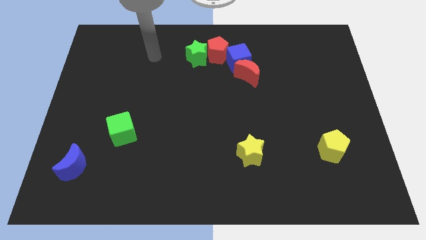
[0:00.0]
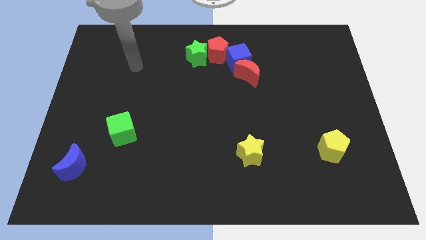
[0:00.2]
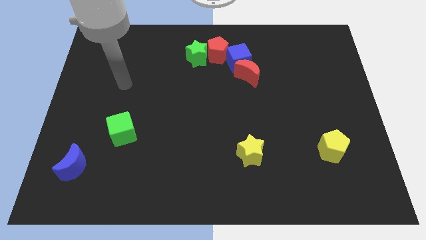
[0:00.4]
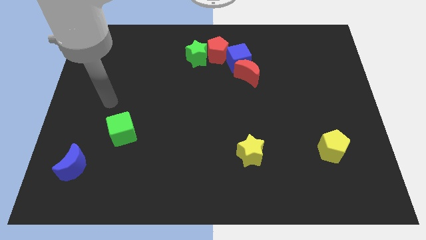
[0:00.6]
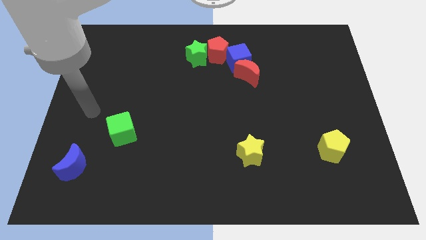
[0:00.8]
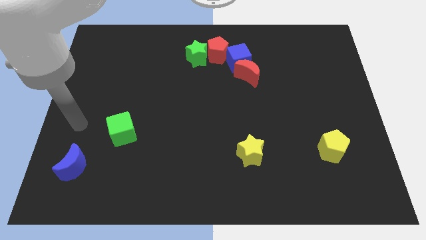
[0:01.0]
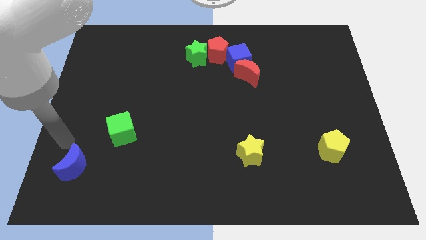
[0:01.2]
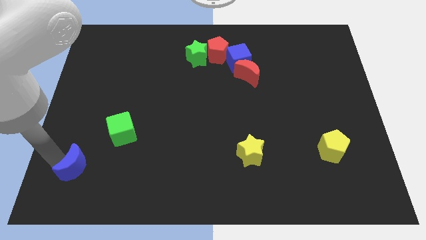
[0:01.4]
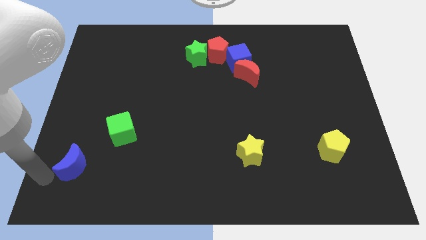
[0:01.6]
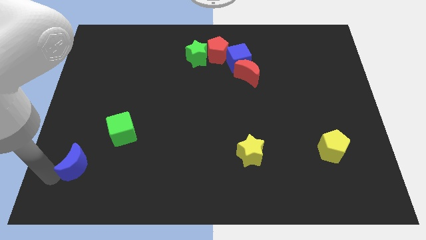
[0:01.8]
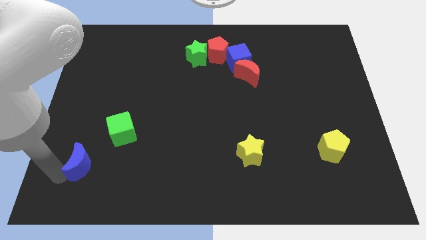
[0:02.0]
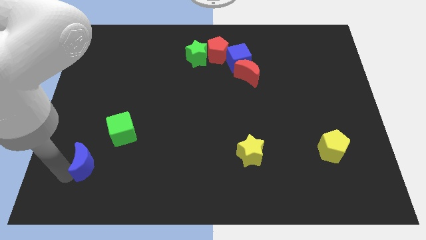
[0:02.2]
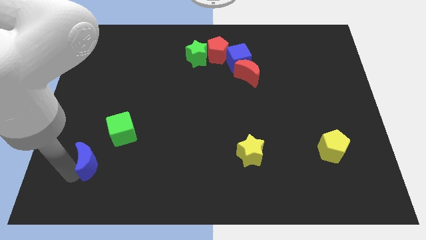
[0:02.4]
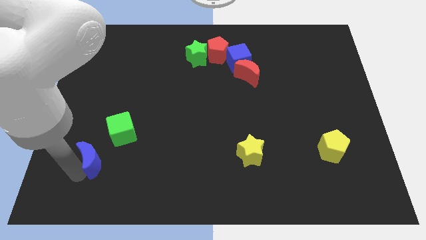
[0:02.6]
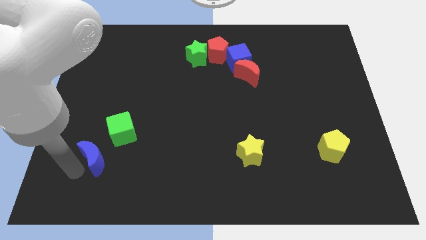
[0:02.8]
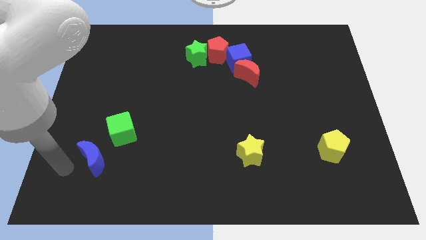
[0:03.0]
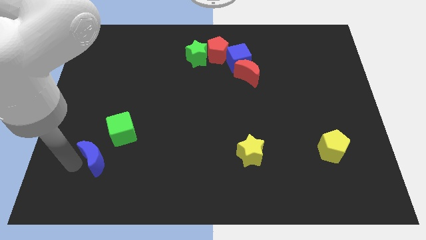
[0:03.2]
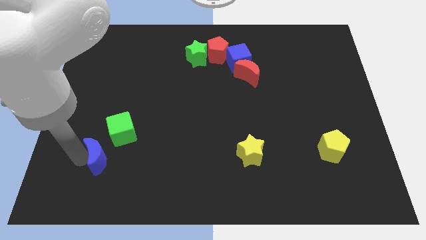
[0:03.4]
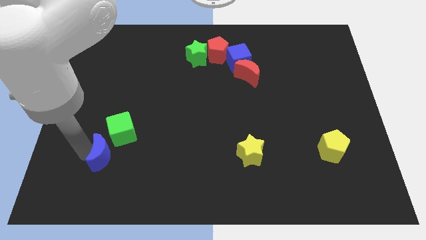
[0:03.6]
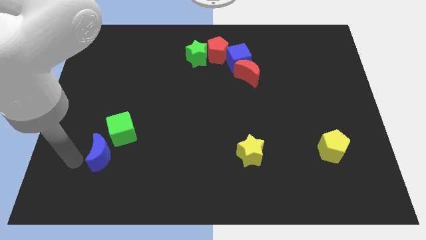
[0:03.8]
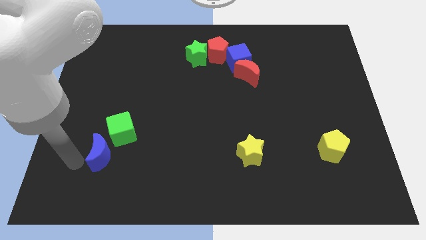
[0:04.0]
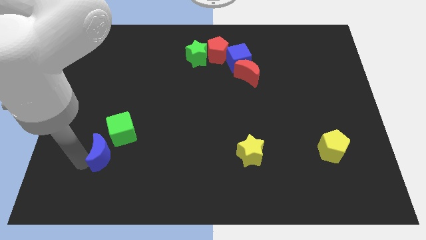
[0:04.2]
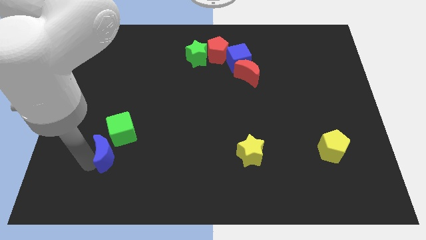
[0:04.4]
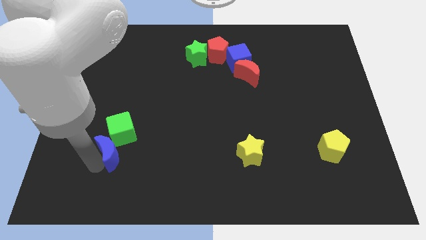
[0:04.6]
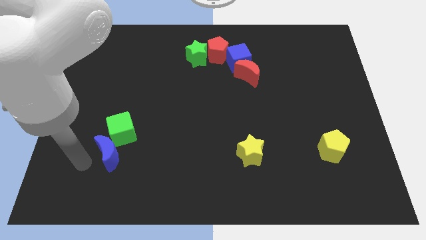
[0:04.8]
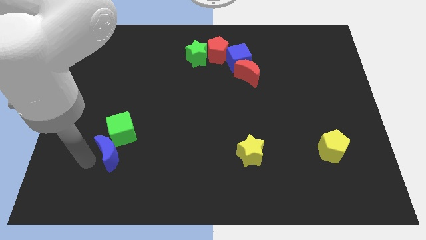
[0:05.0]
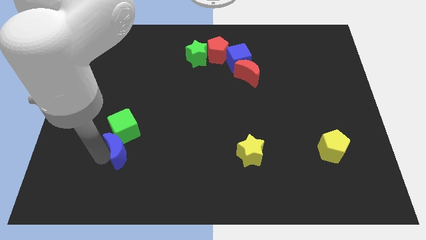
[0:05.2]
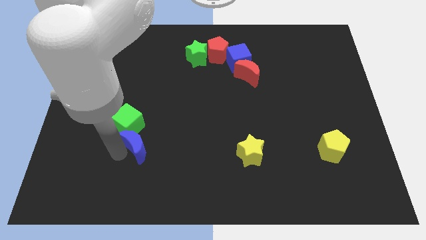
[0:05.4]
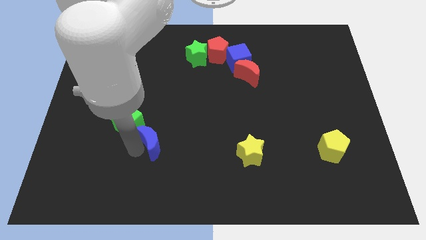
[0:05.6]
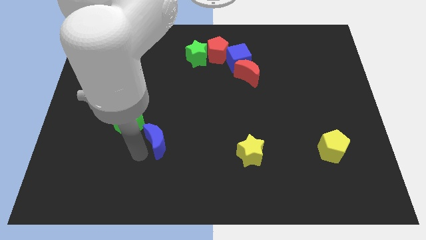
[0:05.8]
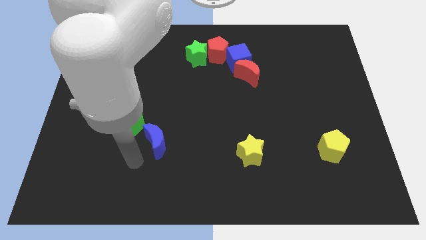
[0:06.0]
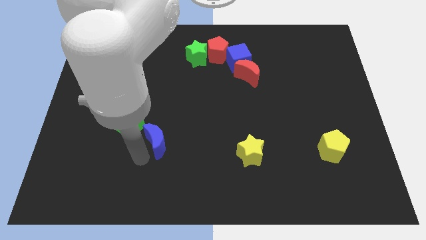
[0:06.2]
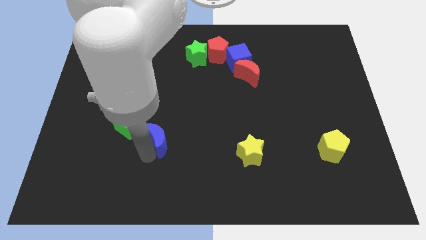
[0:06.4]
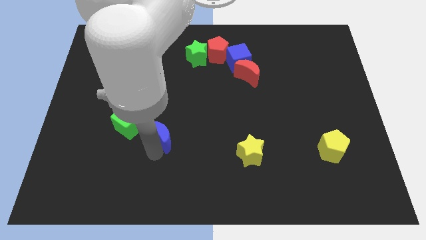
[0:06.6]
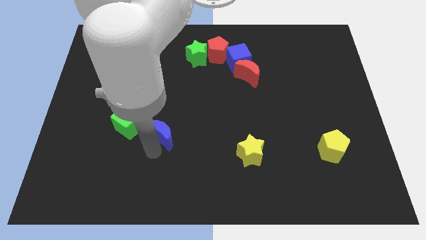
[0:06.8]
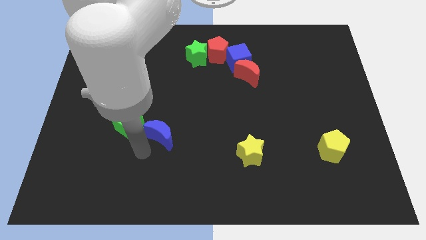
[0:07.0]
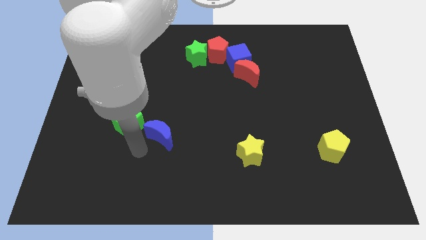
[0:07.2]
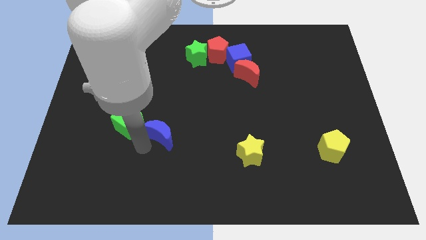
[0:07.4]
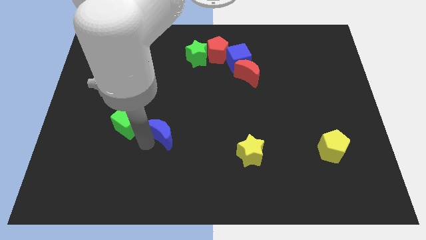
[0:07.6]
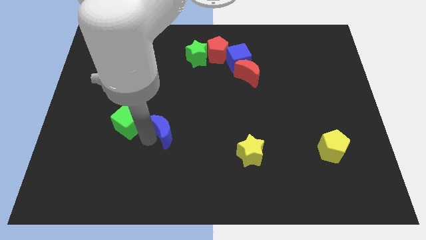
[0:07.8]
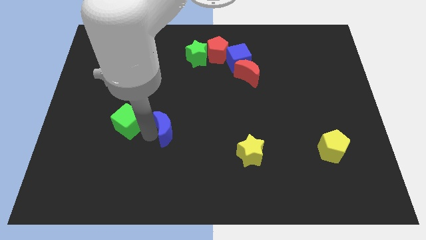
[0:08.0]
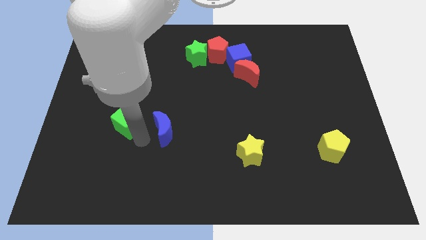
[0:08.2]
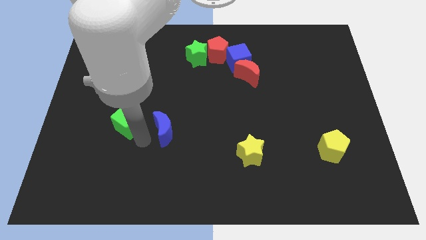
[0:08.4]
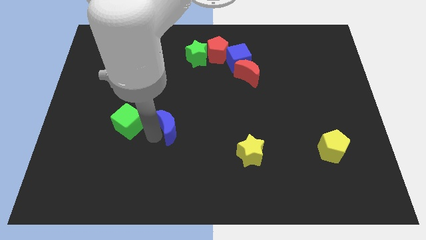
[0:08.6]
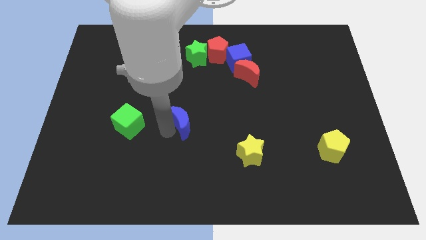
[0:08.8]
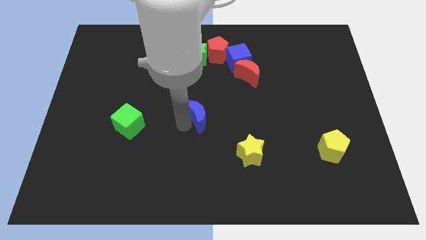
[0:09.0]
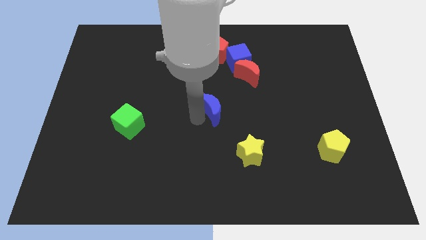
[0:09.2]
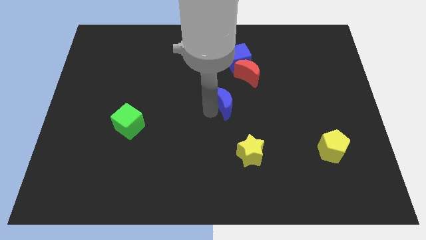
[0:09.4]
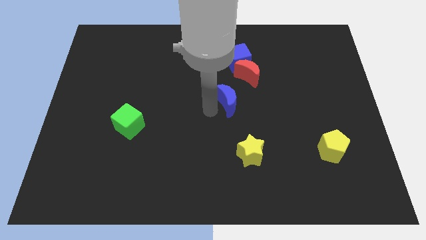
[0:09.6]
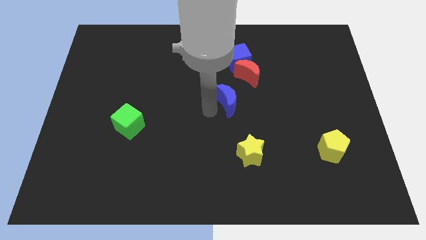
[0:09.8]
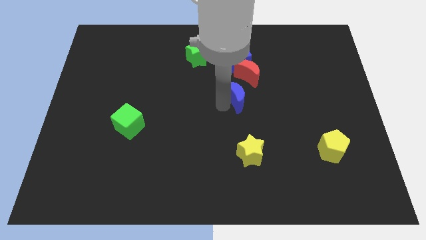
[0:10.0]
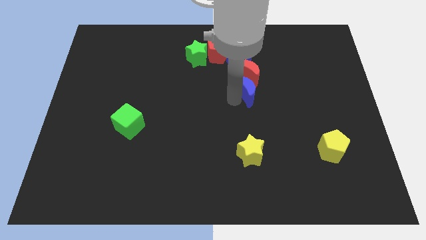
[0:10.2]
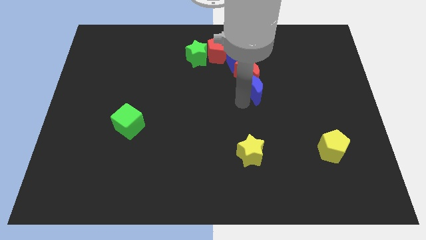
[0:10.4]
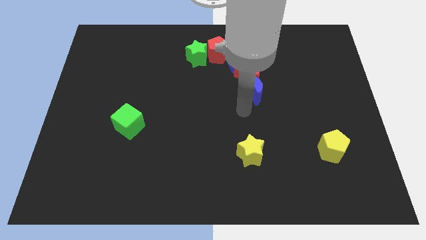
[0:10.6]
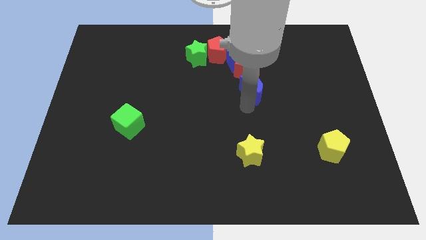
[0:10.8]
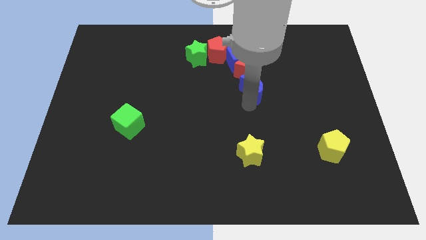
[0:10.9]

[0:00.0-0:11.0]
put the blue moon to the bottom right side of the blue cube

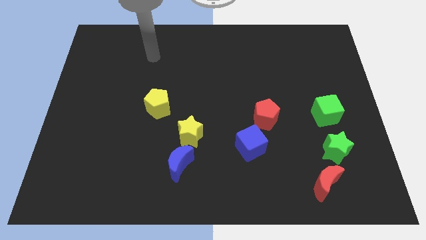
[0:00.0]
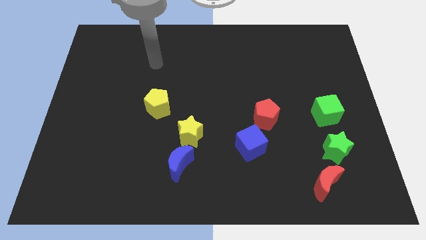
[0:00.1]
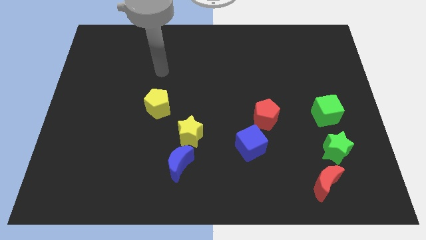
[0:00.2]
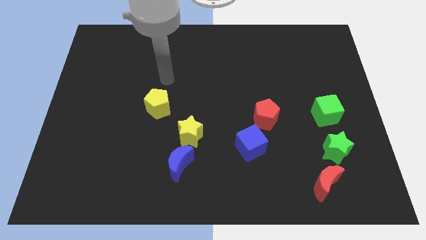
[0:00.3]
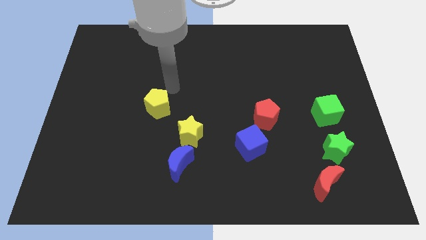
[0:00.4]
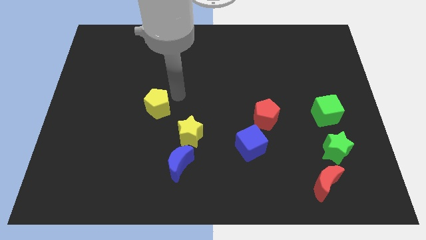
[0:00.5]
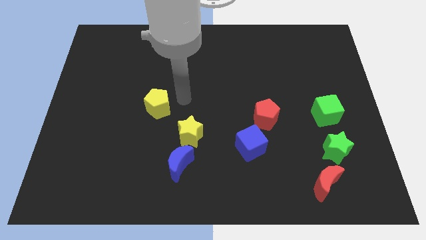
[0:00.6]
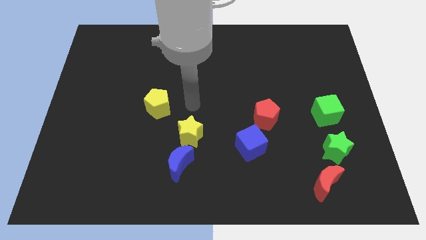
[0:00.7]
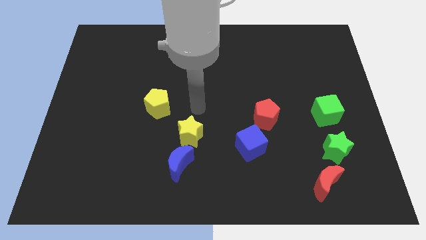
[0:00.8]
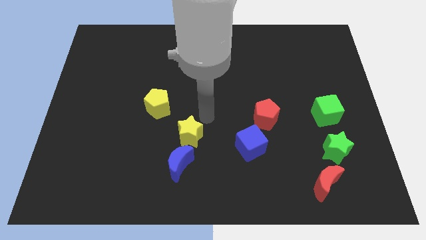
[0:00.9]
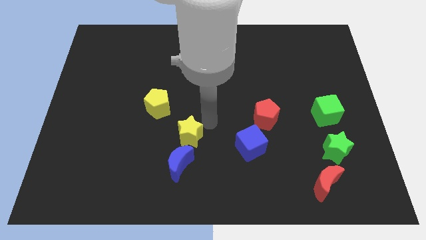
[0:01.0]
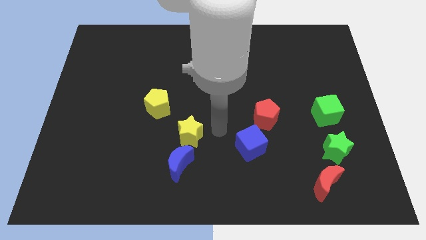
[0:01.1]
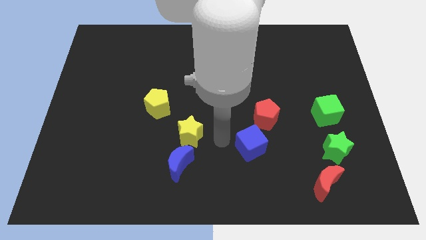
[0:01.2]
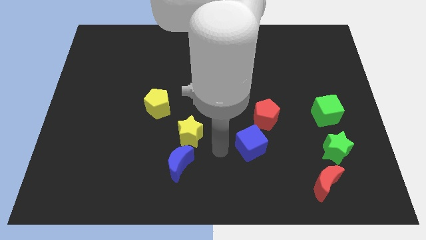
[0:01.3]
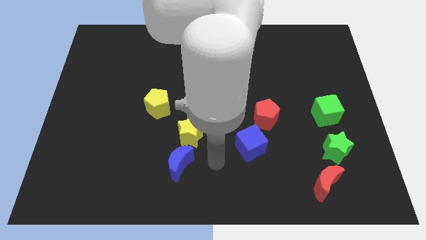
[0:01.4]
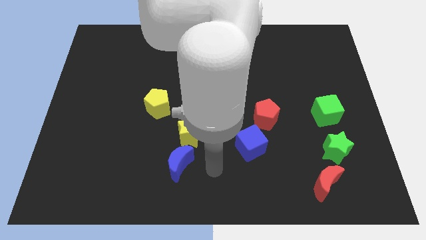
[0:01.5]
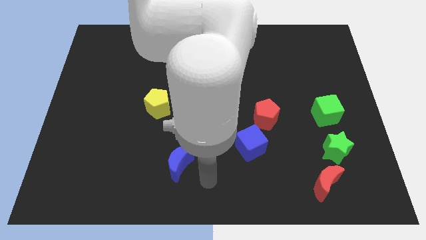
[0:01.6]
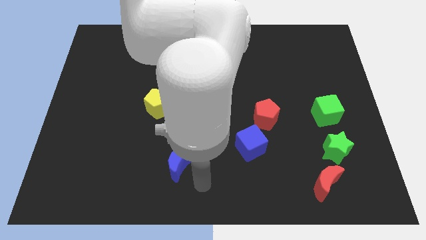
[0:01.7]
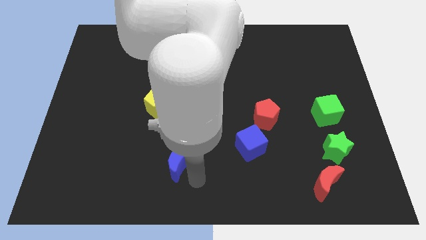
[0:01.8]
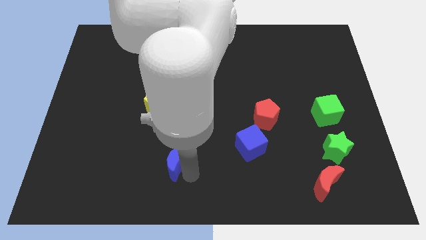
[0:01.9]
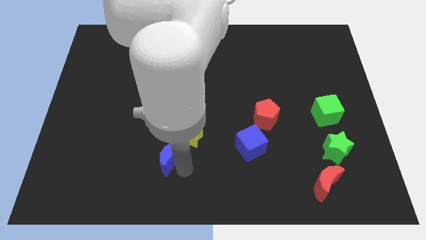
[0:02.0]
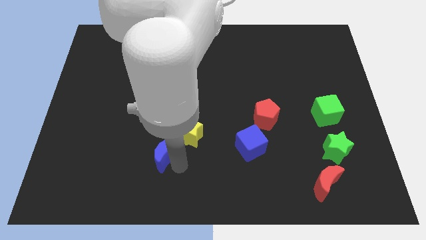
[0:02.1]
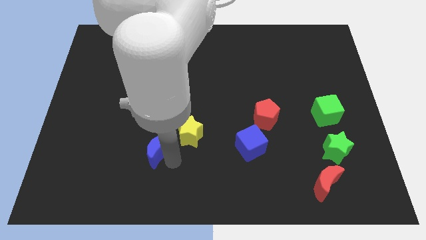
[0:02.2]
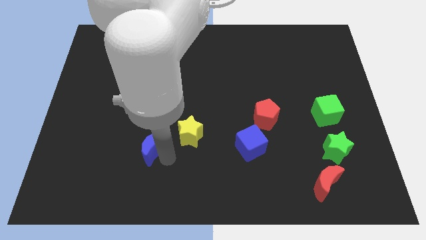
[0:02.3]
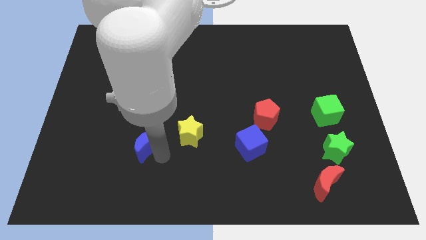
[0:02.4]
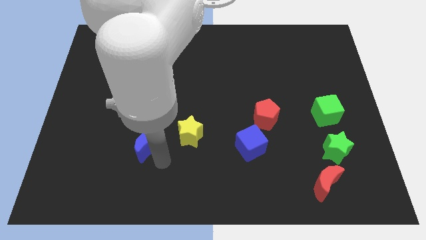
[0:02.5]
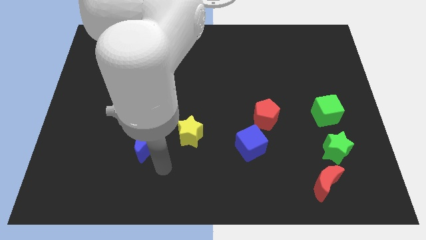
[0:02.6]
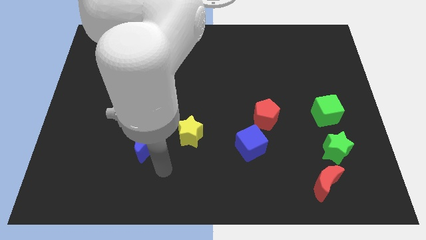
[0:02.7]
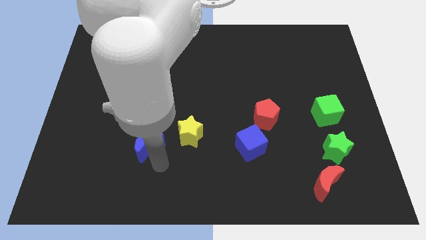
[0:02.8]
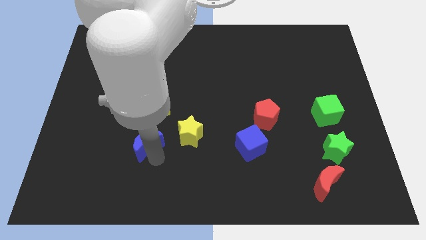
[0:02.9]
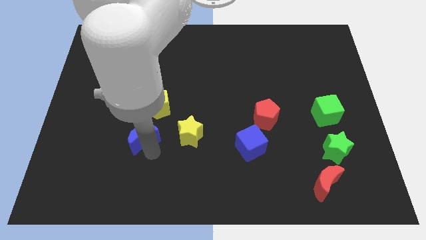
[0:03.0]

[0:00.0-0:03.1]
move the blue moon diagonally down and to the left of the yellow pentagon
